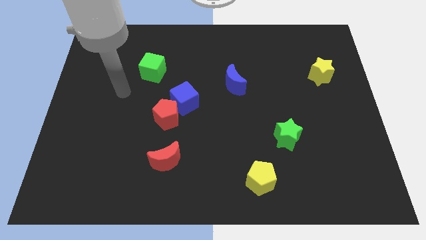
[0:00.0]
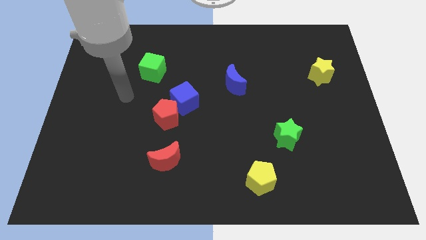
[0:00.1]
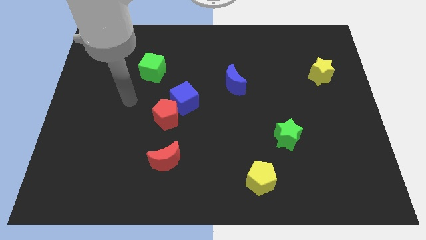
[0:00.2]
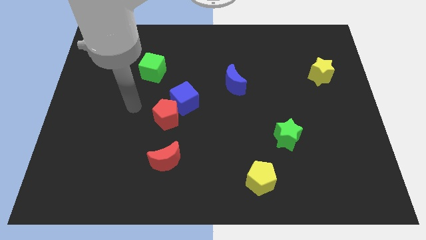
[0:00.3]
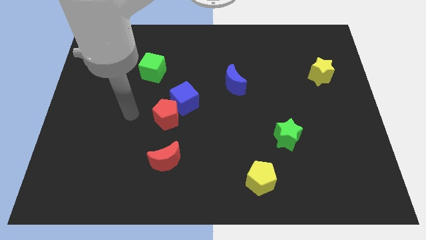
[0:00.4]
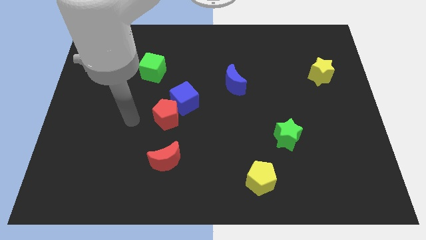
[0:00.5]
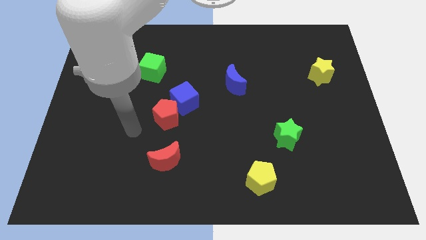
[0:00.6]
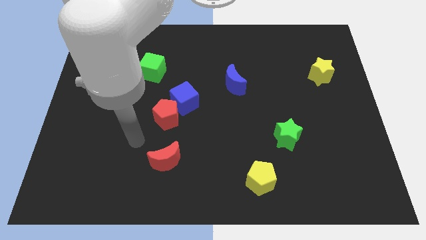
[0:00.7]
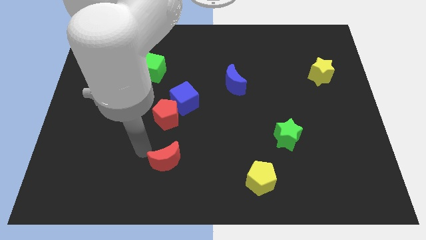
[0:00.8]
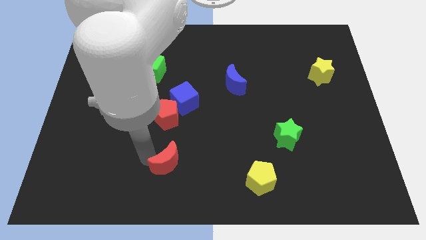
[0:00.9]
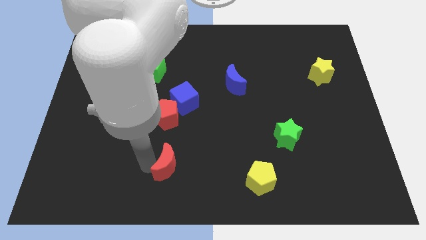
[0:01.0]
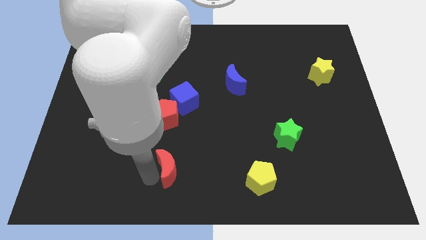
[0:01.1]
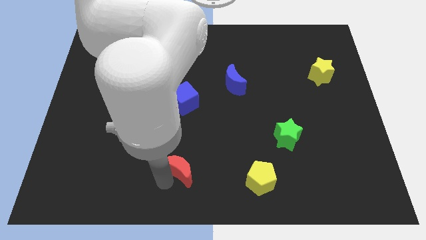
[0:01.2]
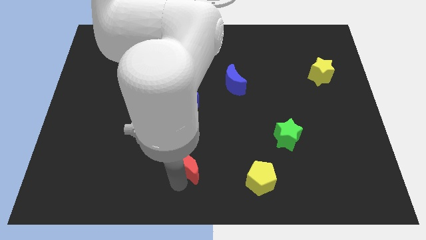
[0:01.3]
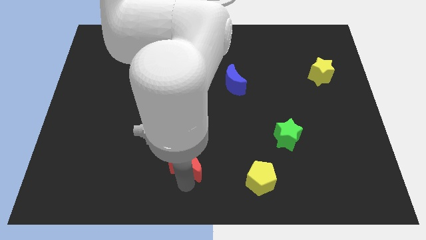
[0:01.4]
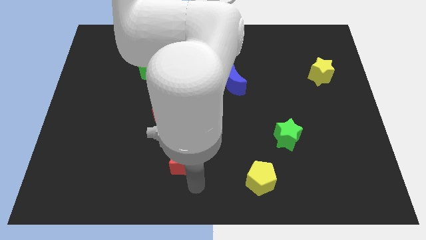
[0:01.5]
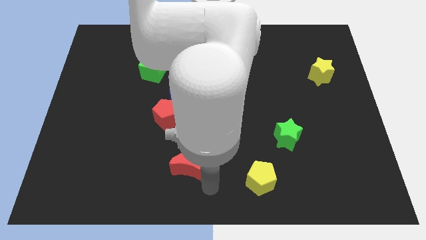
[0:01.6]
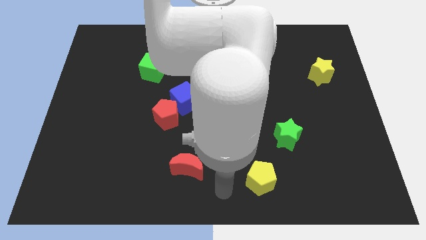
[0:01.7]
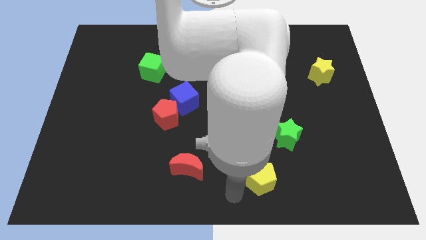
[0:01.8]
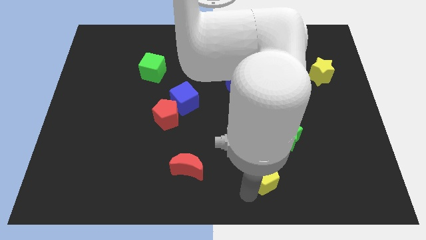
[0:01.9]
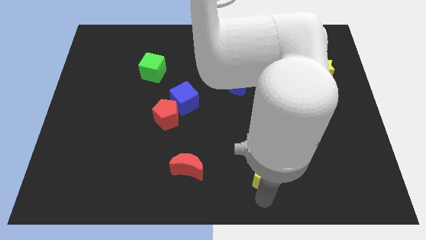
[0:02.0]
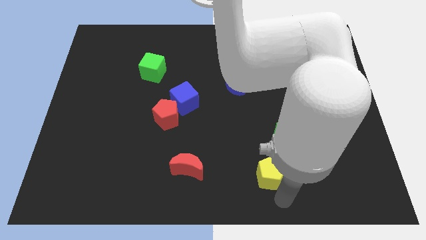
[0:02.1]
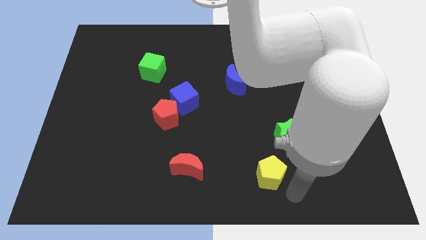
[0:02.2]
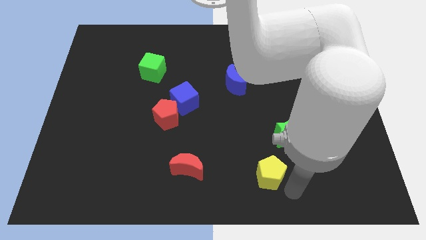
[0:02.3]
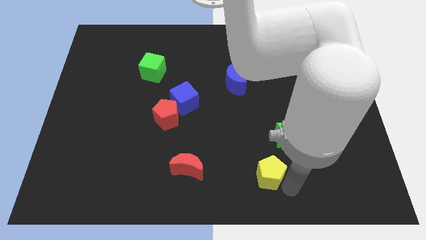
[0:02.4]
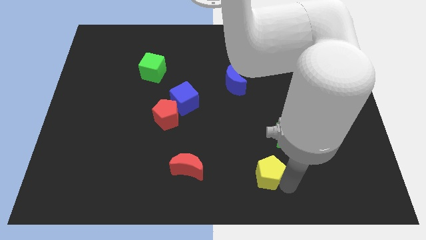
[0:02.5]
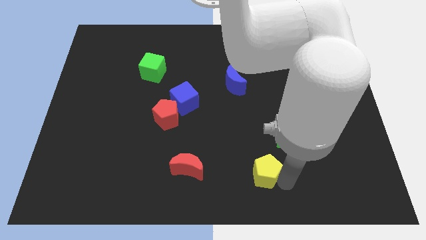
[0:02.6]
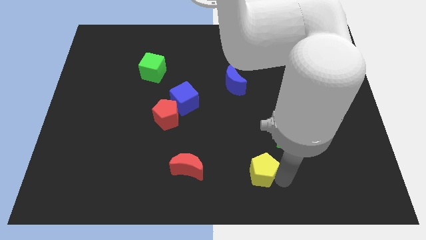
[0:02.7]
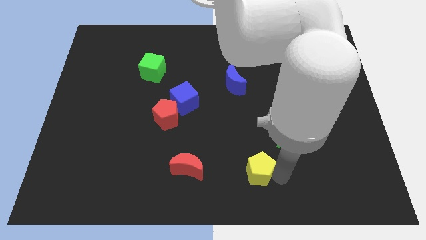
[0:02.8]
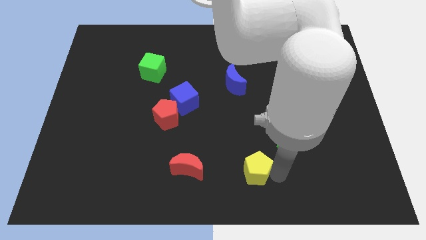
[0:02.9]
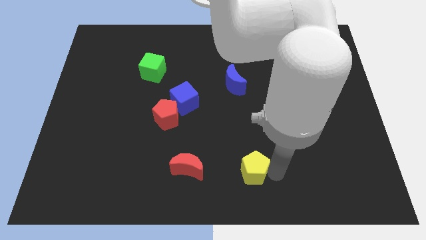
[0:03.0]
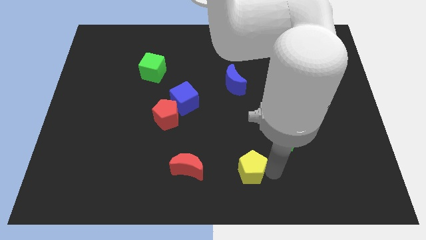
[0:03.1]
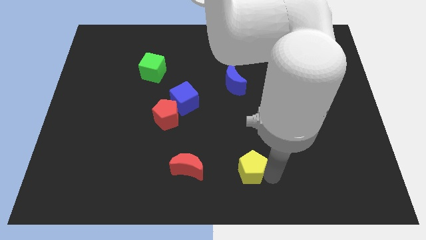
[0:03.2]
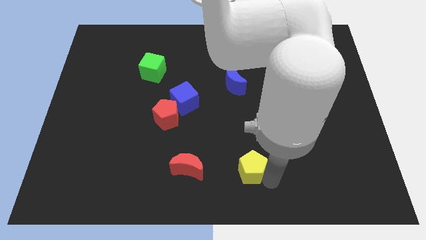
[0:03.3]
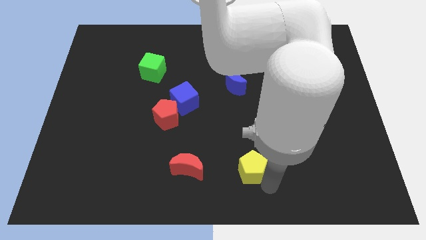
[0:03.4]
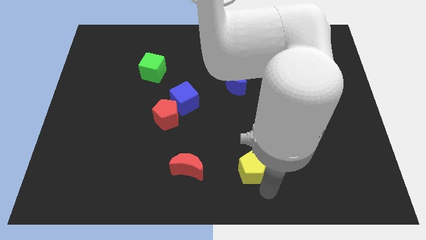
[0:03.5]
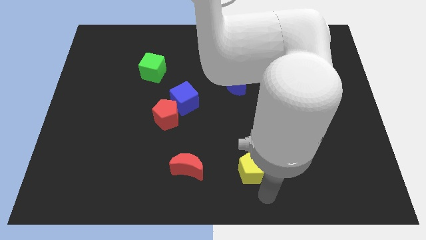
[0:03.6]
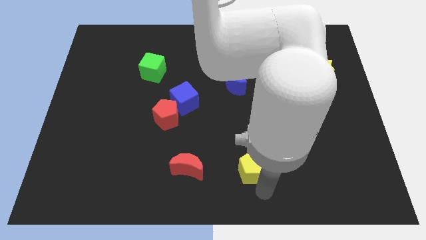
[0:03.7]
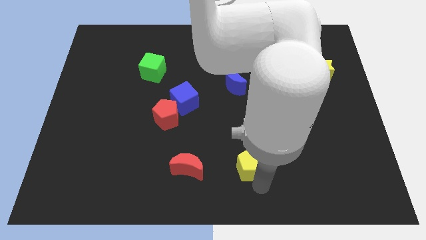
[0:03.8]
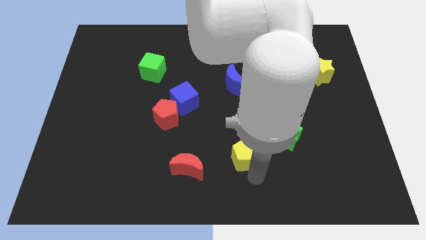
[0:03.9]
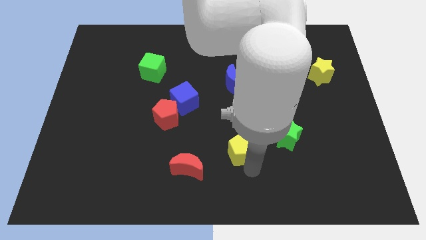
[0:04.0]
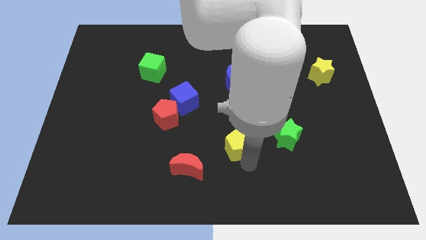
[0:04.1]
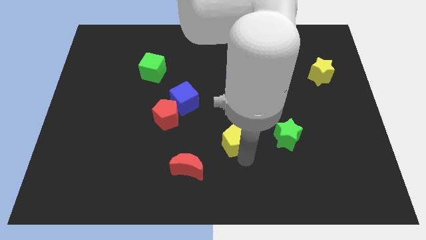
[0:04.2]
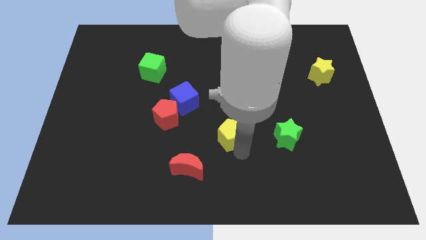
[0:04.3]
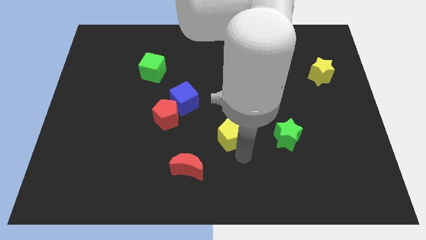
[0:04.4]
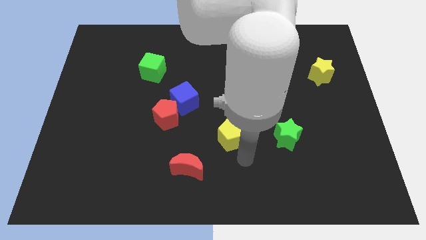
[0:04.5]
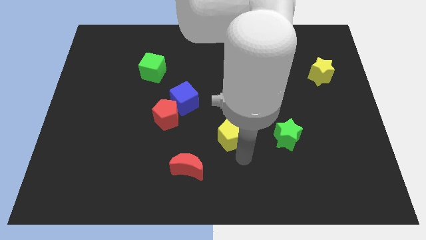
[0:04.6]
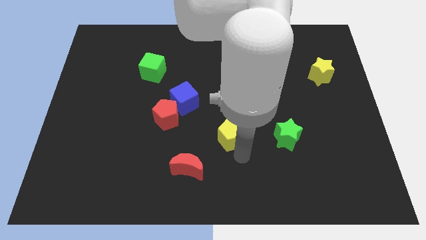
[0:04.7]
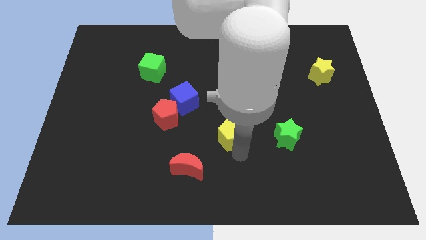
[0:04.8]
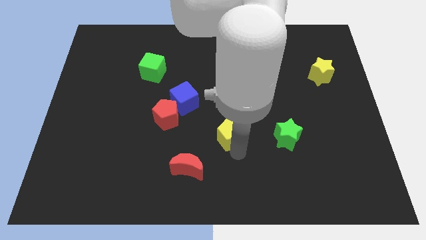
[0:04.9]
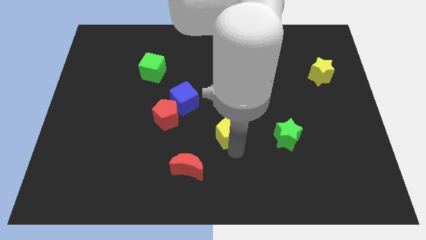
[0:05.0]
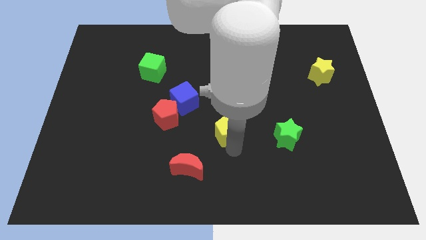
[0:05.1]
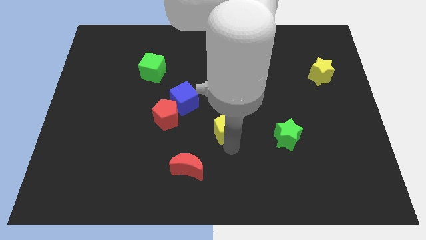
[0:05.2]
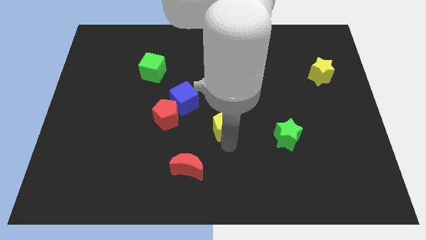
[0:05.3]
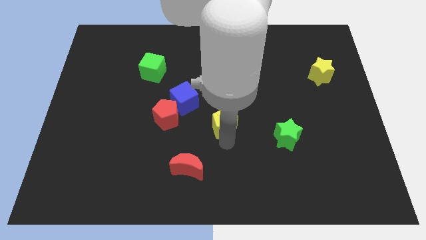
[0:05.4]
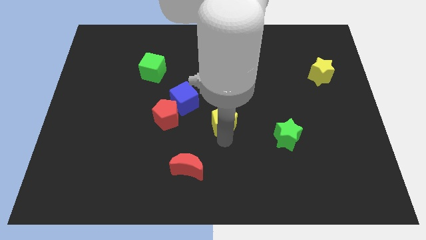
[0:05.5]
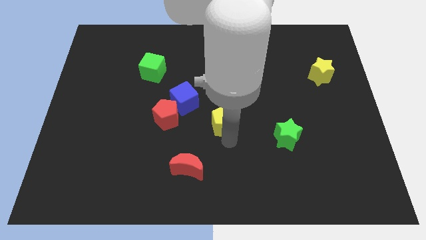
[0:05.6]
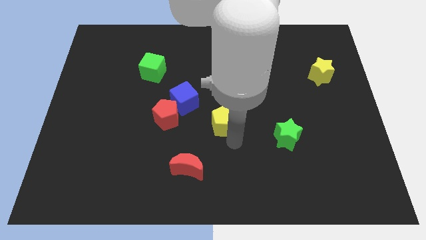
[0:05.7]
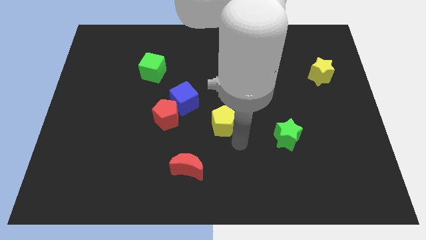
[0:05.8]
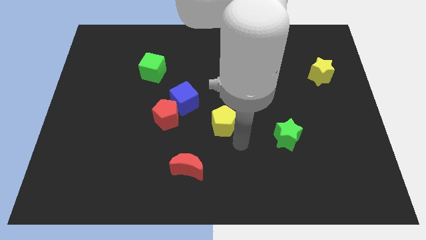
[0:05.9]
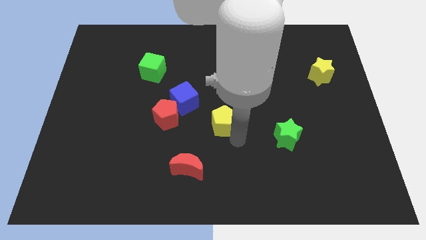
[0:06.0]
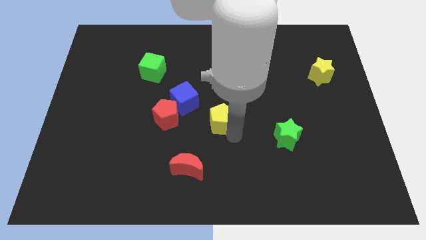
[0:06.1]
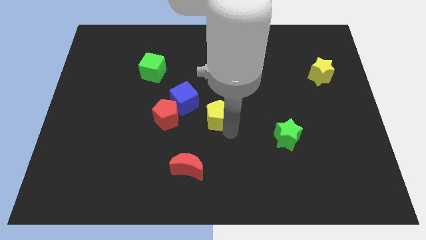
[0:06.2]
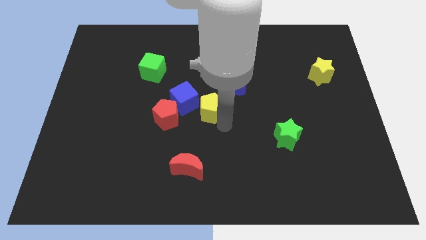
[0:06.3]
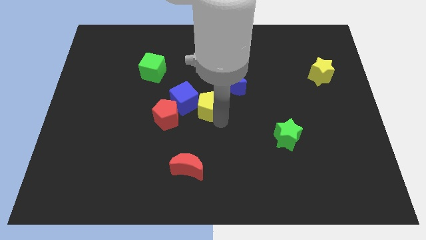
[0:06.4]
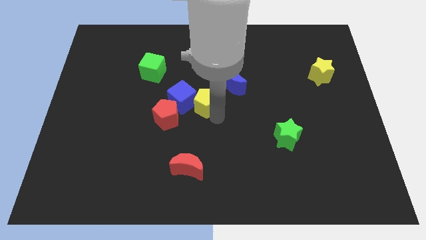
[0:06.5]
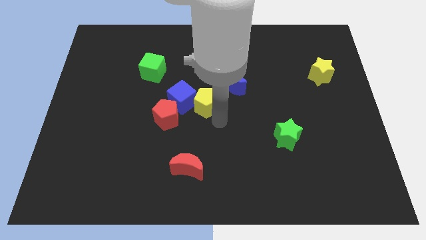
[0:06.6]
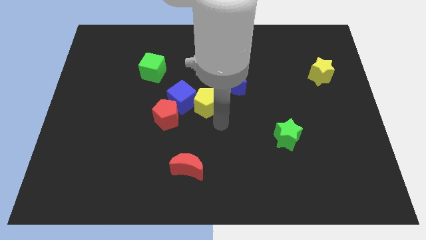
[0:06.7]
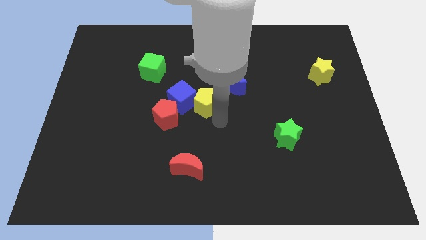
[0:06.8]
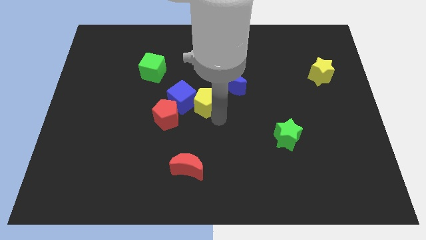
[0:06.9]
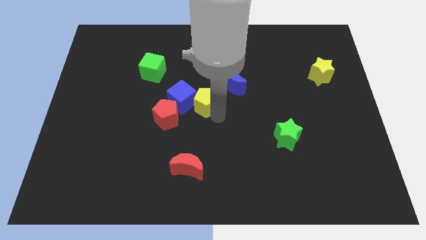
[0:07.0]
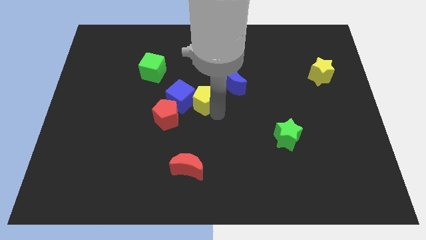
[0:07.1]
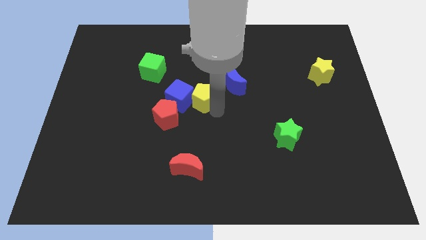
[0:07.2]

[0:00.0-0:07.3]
put the yellow pentagon to the left side of the blue moon
